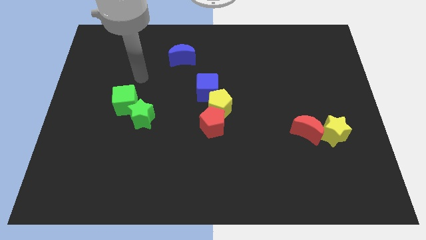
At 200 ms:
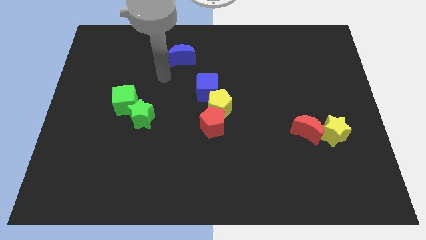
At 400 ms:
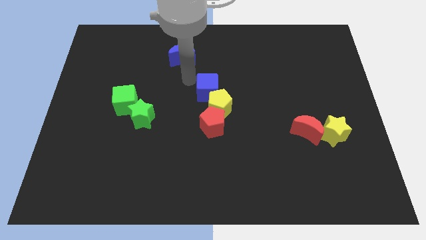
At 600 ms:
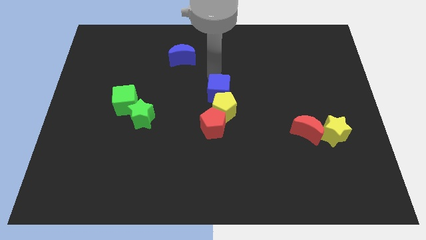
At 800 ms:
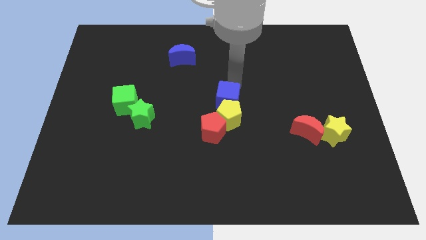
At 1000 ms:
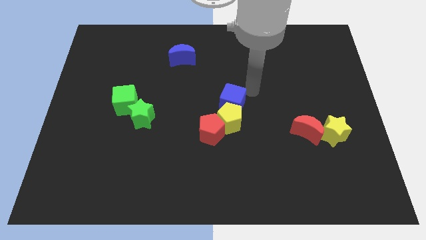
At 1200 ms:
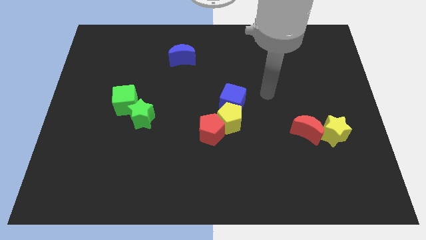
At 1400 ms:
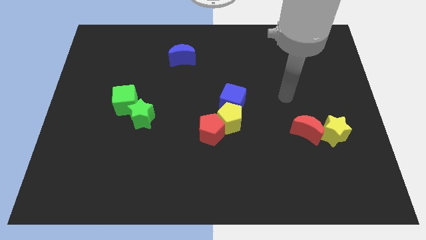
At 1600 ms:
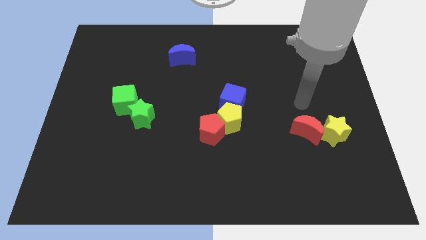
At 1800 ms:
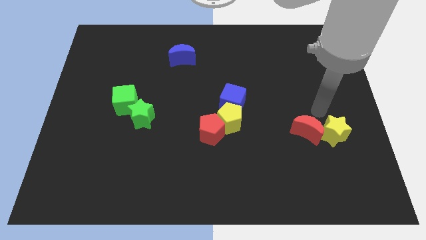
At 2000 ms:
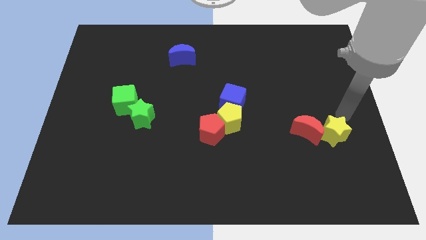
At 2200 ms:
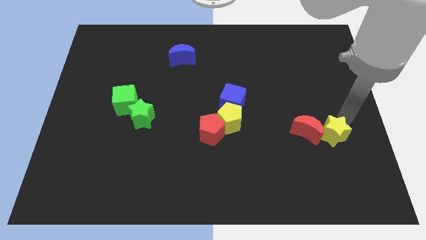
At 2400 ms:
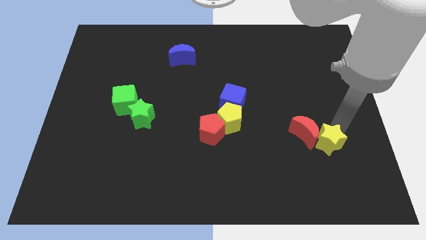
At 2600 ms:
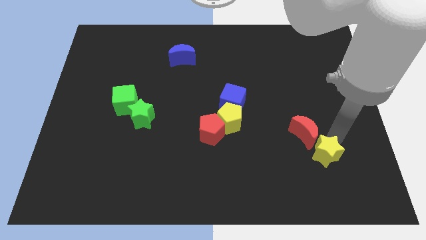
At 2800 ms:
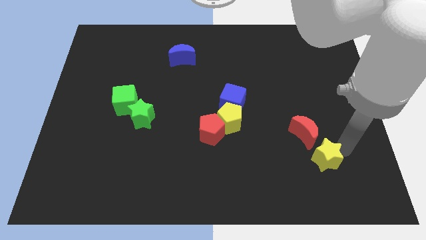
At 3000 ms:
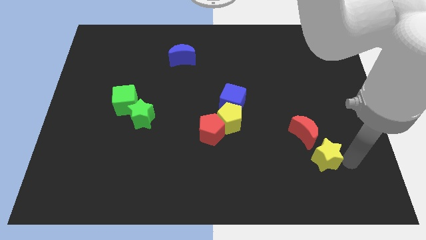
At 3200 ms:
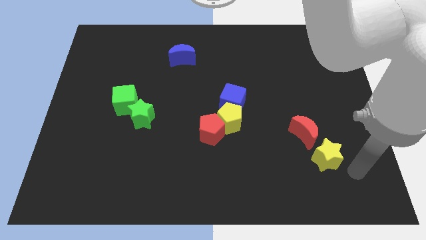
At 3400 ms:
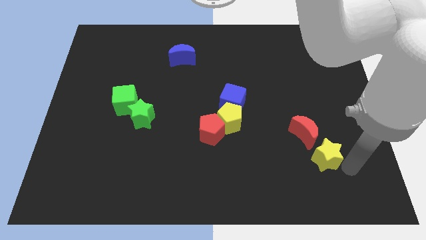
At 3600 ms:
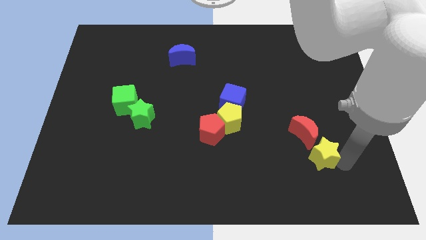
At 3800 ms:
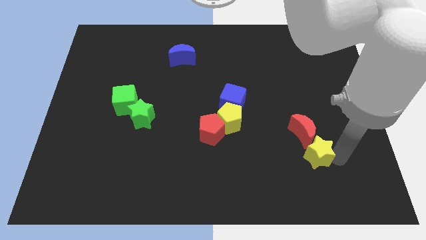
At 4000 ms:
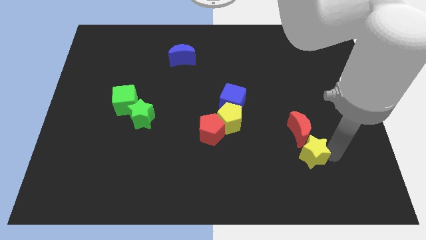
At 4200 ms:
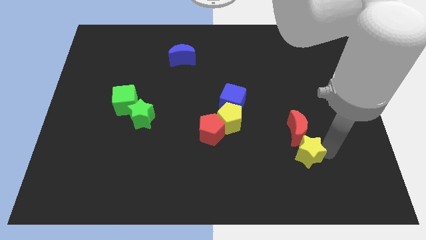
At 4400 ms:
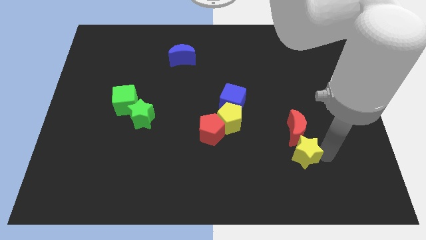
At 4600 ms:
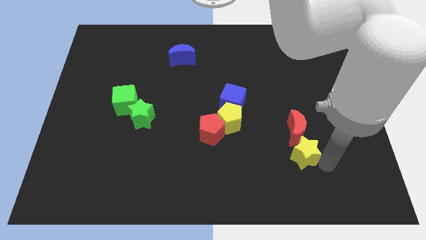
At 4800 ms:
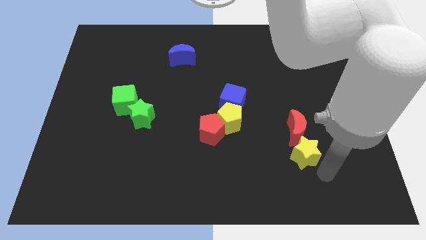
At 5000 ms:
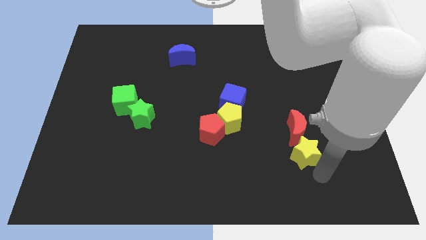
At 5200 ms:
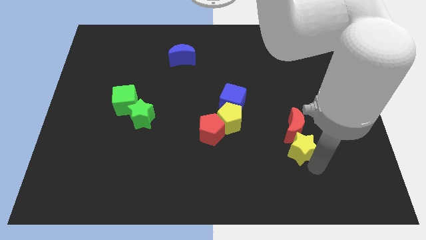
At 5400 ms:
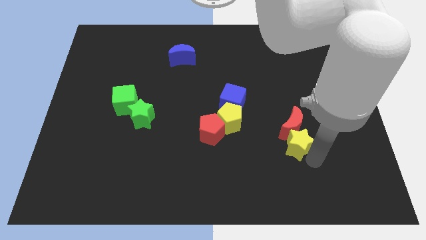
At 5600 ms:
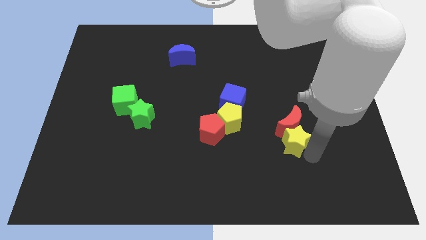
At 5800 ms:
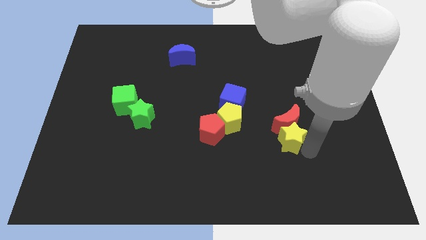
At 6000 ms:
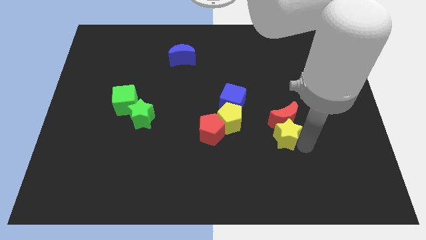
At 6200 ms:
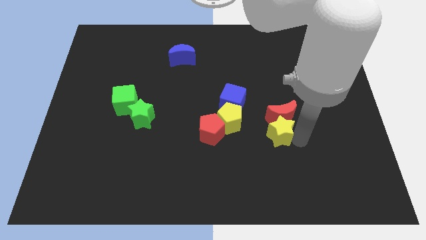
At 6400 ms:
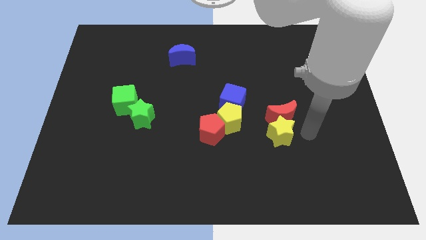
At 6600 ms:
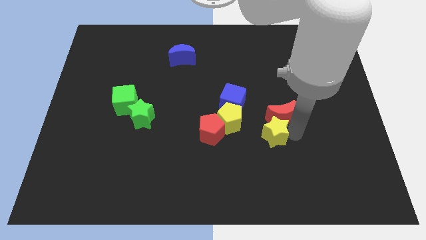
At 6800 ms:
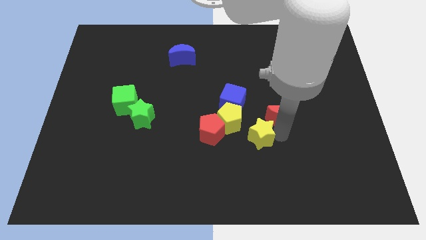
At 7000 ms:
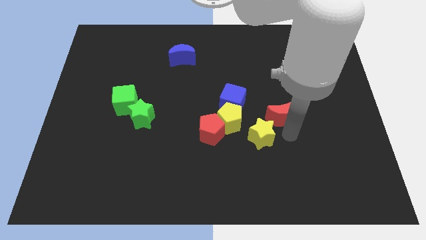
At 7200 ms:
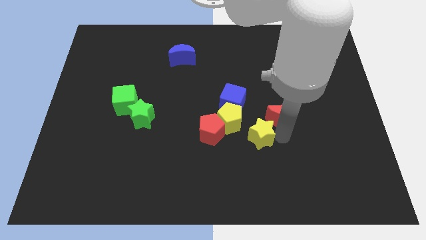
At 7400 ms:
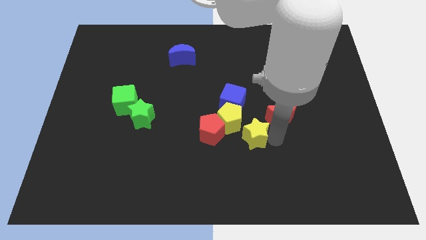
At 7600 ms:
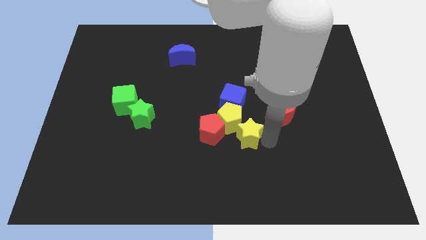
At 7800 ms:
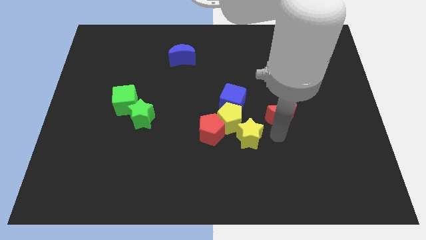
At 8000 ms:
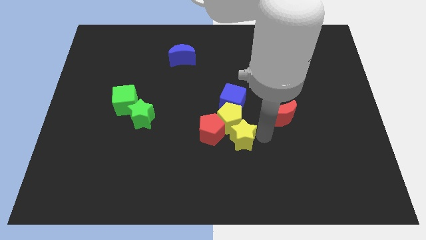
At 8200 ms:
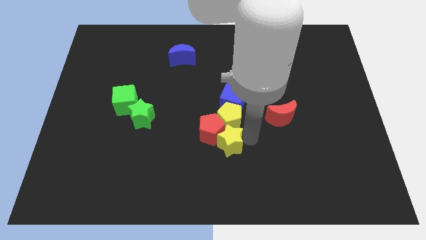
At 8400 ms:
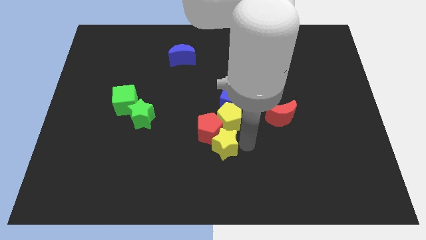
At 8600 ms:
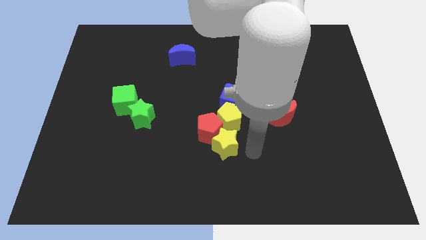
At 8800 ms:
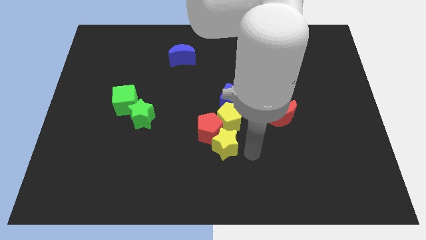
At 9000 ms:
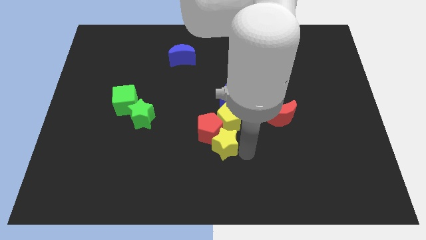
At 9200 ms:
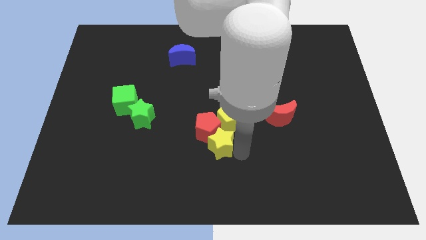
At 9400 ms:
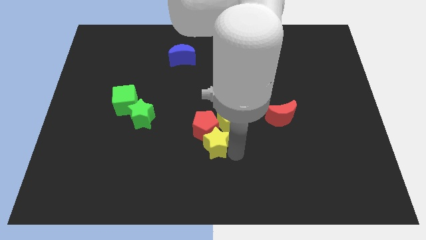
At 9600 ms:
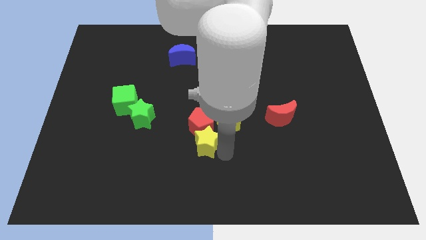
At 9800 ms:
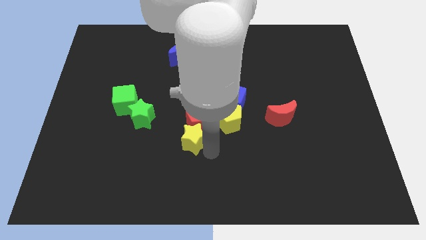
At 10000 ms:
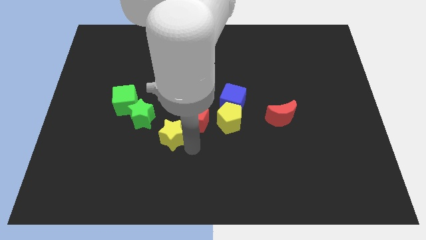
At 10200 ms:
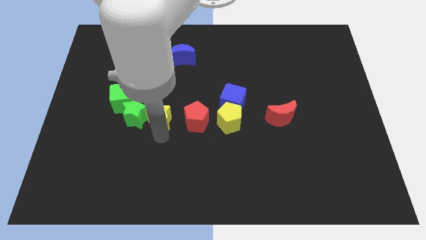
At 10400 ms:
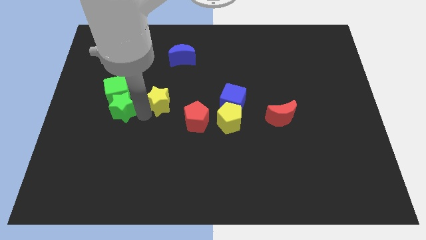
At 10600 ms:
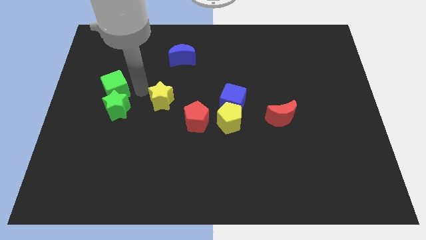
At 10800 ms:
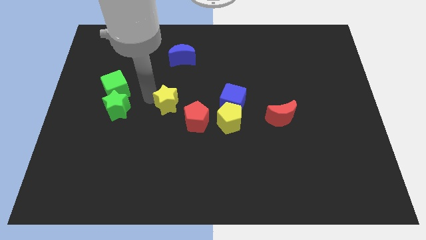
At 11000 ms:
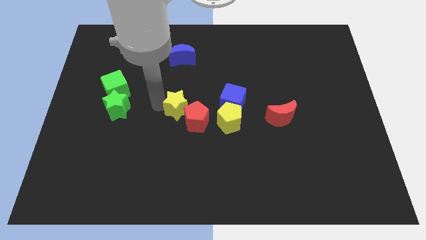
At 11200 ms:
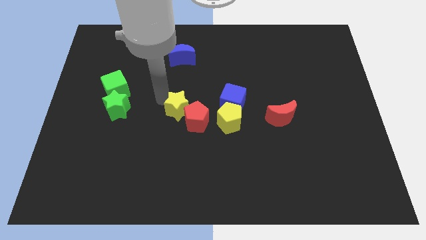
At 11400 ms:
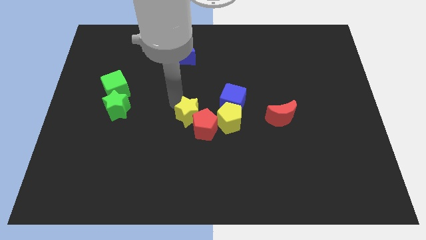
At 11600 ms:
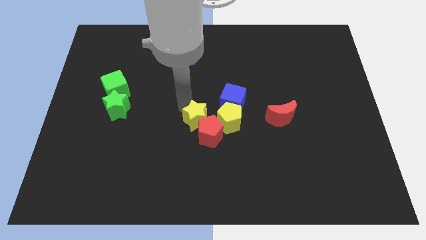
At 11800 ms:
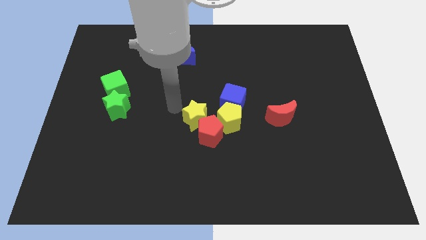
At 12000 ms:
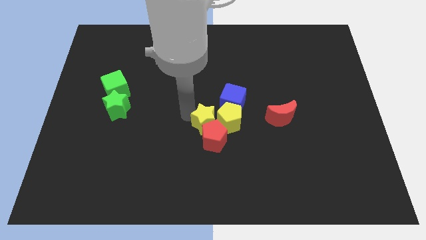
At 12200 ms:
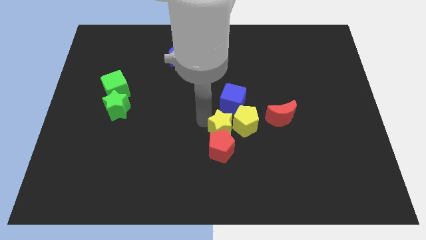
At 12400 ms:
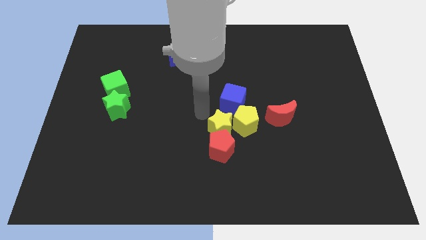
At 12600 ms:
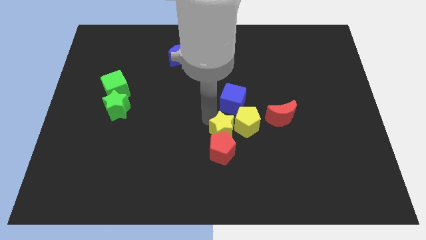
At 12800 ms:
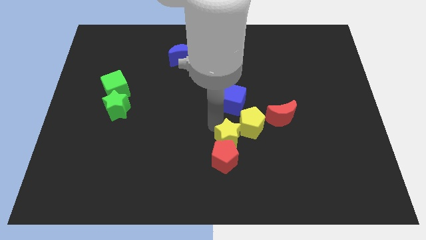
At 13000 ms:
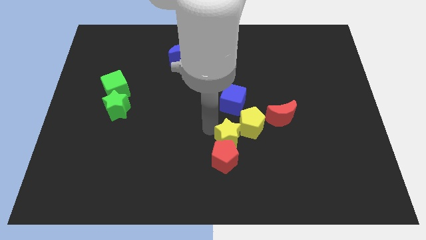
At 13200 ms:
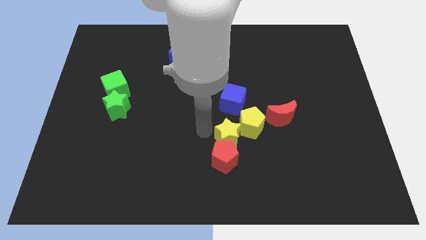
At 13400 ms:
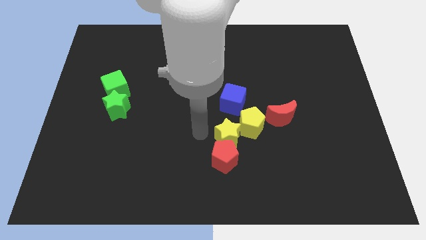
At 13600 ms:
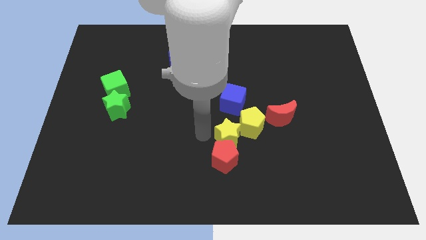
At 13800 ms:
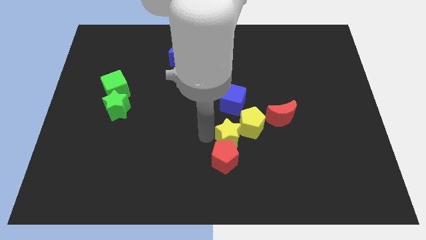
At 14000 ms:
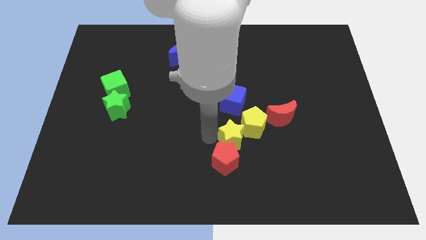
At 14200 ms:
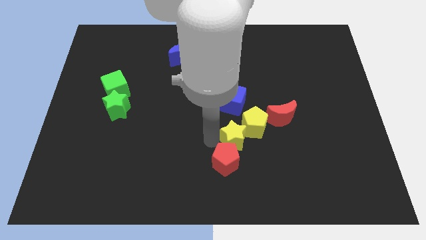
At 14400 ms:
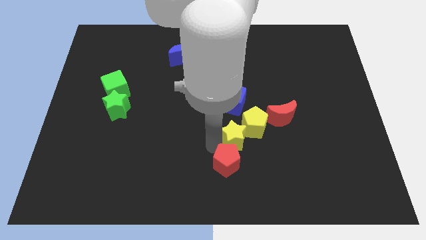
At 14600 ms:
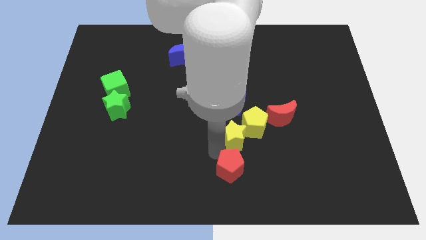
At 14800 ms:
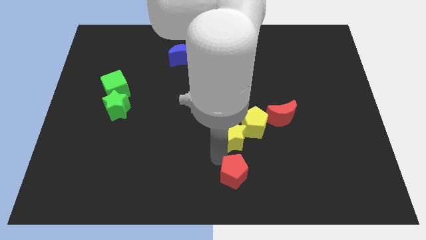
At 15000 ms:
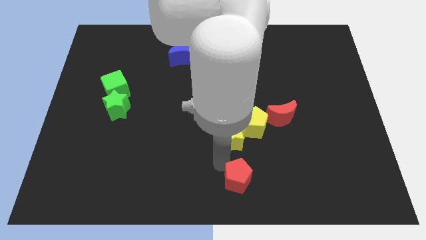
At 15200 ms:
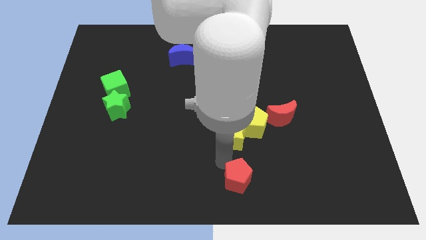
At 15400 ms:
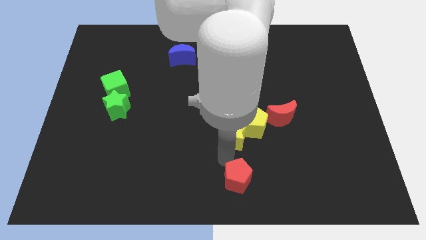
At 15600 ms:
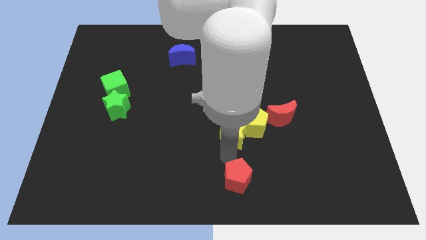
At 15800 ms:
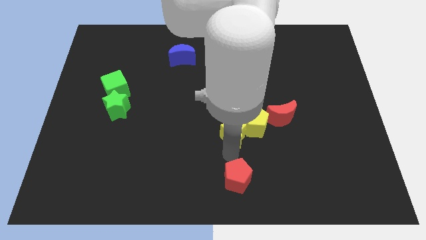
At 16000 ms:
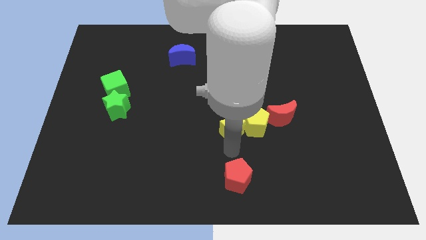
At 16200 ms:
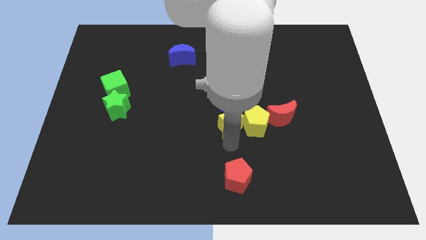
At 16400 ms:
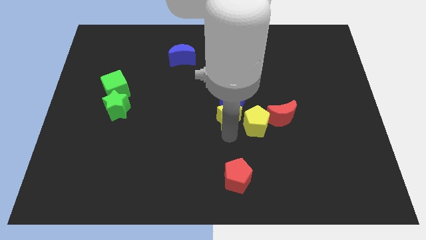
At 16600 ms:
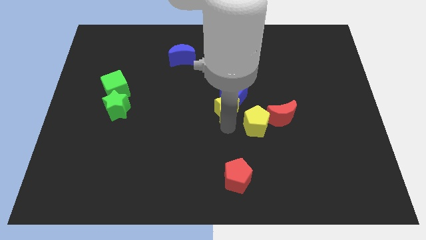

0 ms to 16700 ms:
move the yellow star below the blue cube
